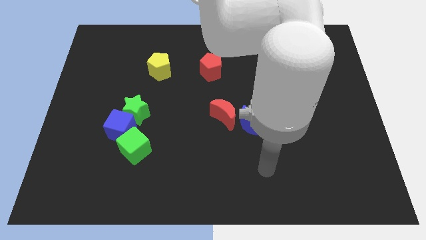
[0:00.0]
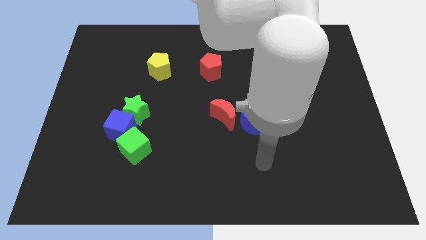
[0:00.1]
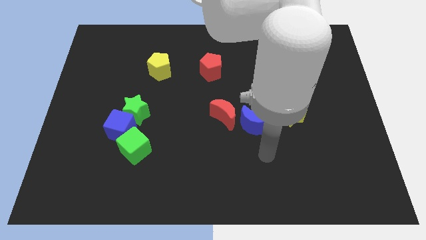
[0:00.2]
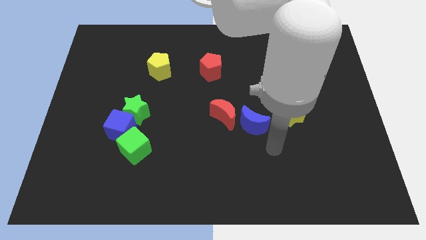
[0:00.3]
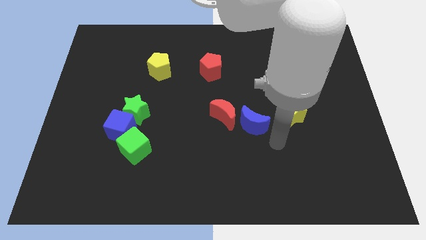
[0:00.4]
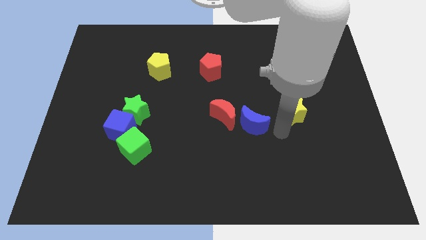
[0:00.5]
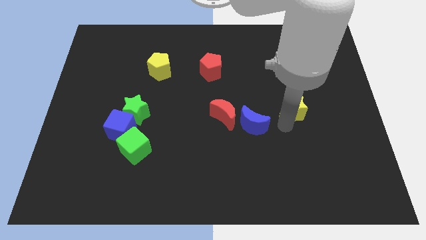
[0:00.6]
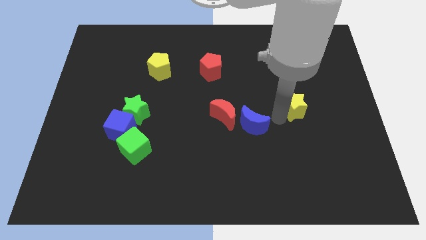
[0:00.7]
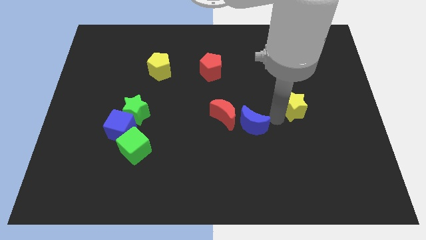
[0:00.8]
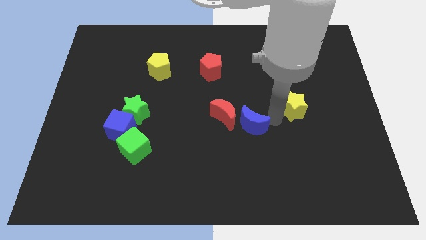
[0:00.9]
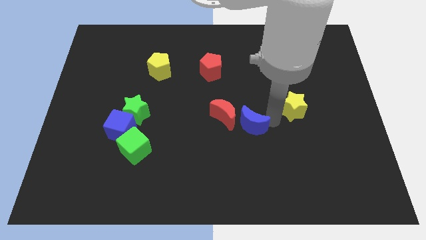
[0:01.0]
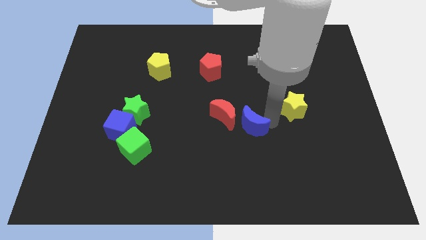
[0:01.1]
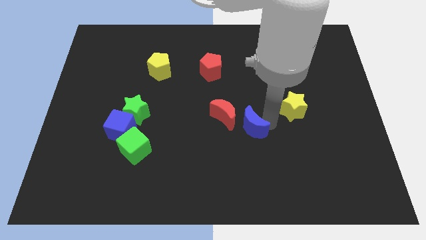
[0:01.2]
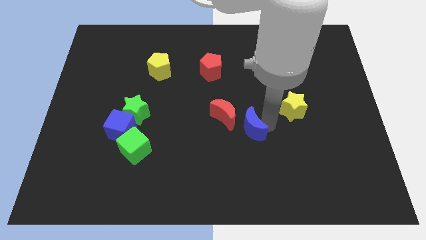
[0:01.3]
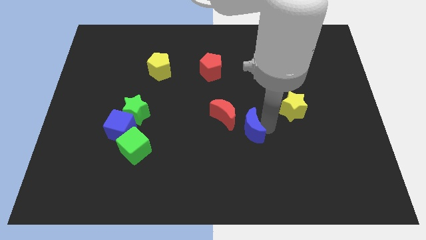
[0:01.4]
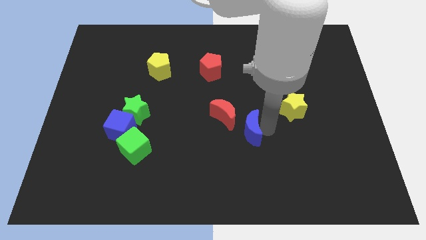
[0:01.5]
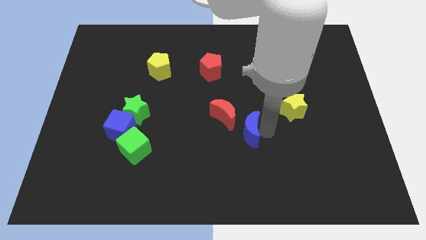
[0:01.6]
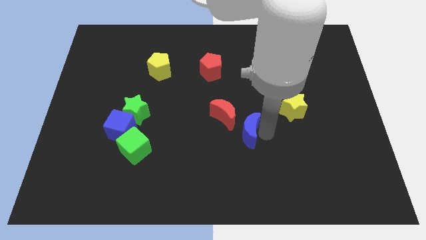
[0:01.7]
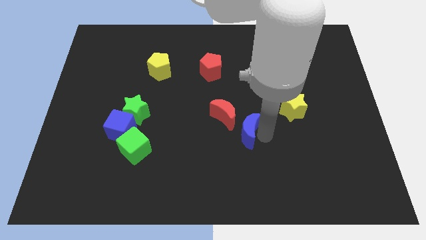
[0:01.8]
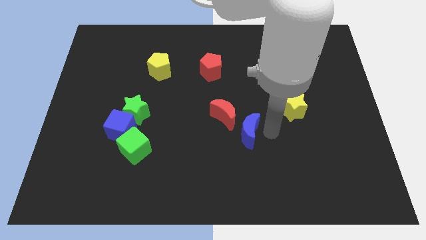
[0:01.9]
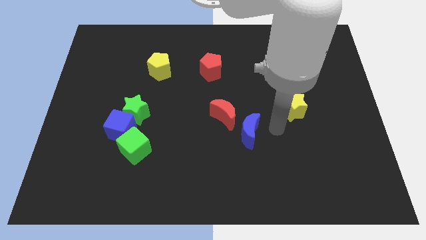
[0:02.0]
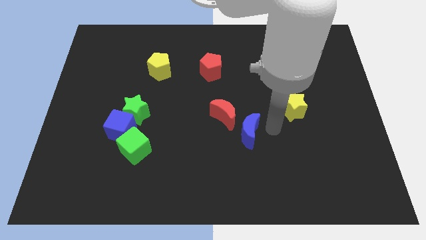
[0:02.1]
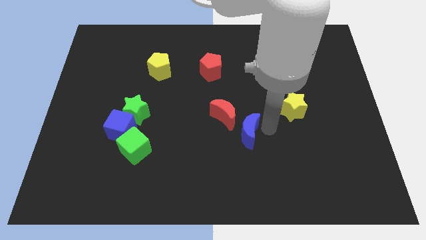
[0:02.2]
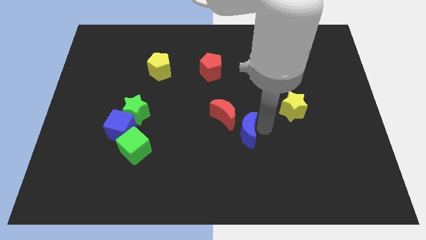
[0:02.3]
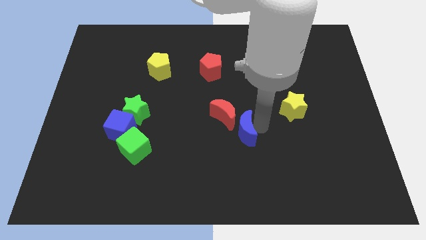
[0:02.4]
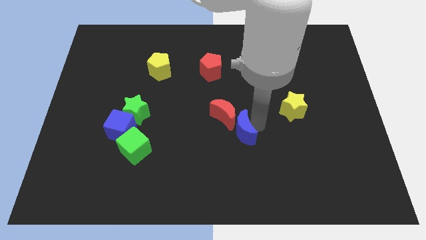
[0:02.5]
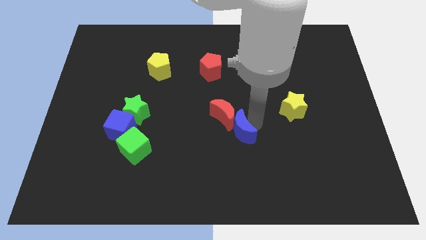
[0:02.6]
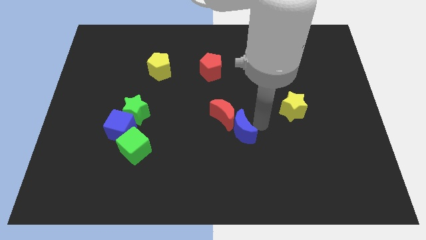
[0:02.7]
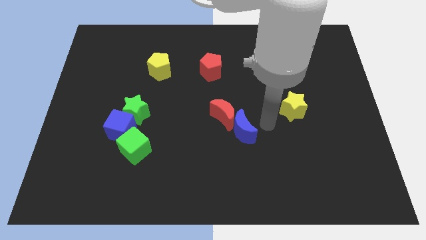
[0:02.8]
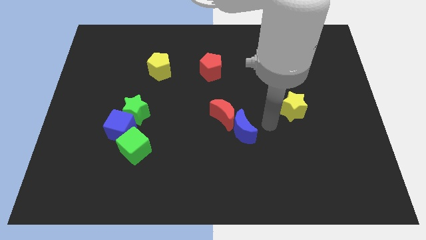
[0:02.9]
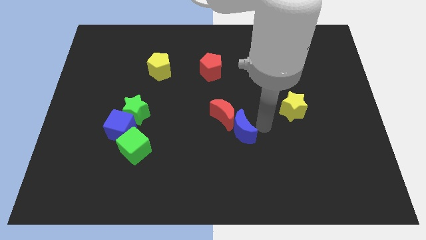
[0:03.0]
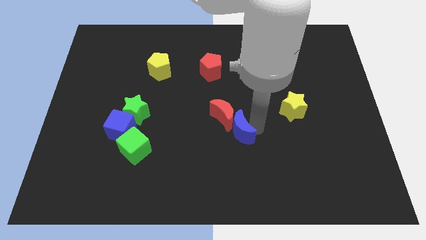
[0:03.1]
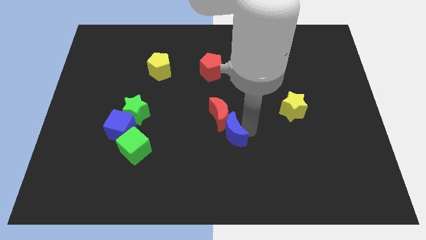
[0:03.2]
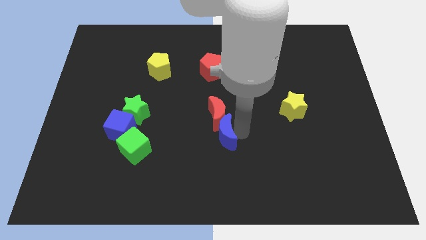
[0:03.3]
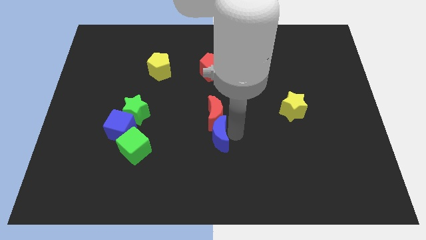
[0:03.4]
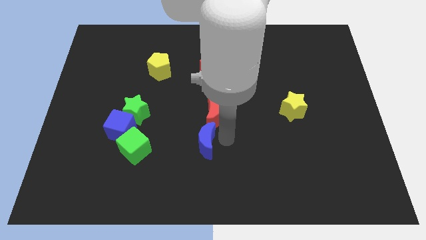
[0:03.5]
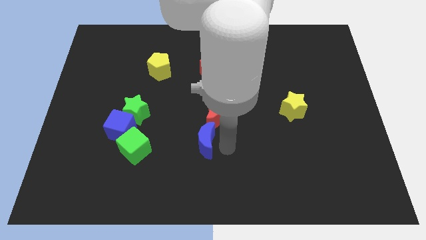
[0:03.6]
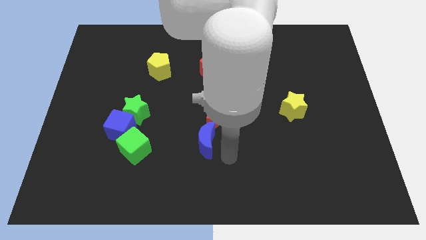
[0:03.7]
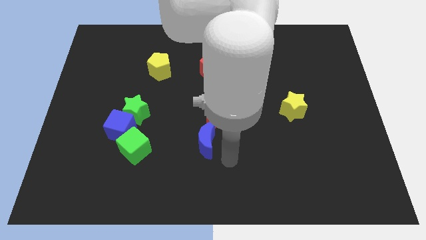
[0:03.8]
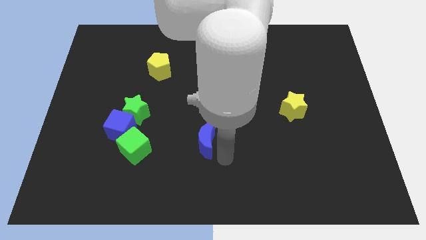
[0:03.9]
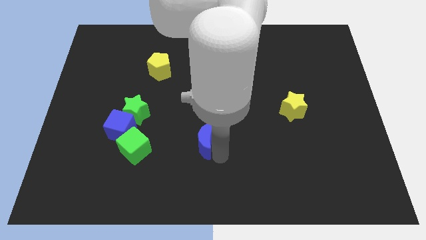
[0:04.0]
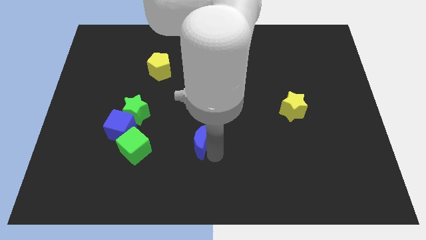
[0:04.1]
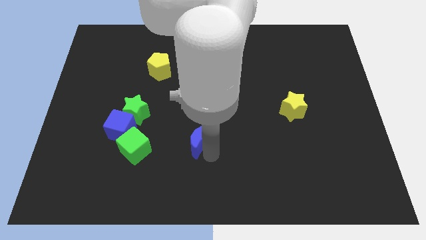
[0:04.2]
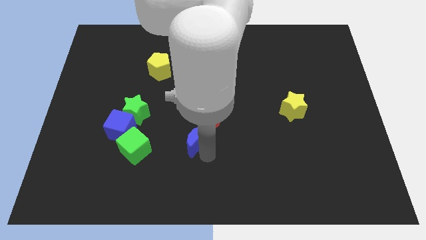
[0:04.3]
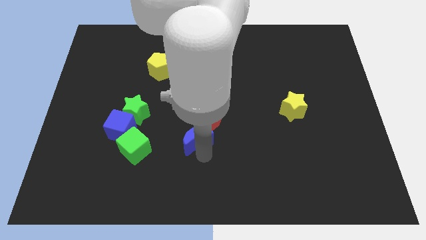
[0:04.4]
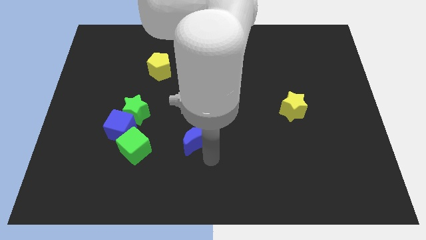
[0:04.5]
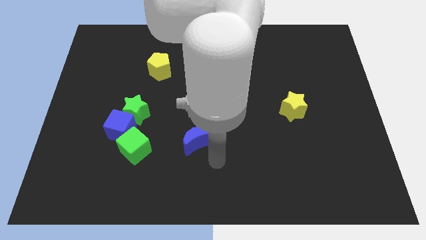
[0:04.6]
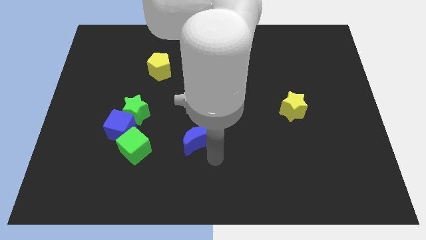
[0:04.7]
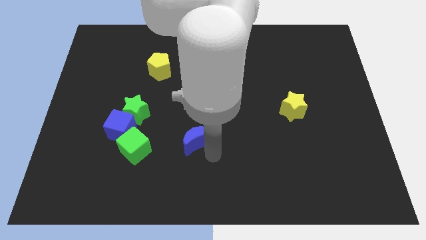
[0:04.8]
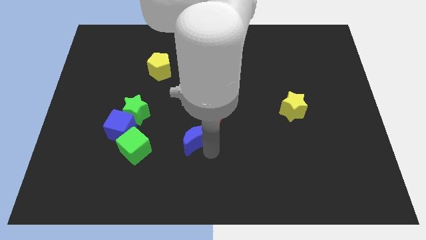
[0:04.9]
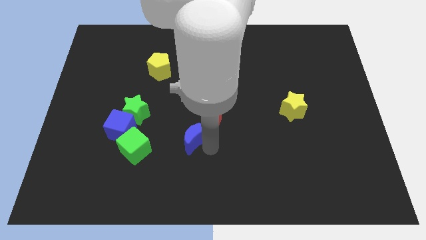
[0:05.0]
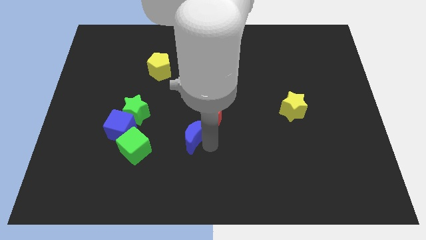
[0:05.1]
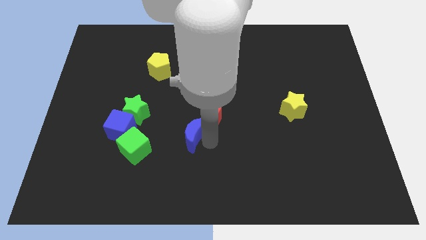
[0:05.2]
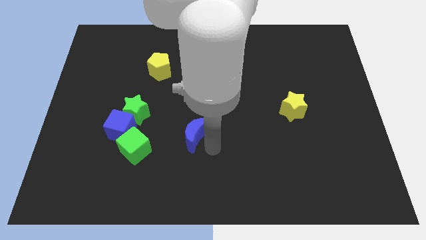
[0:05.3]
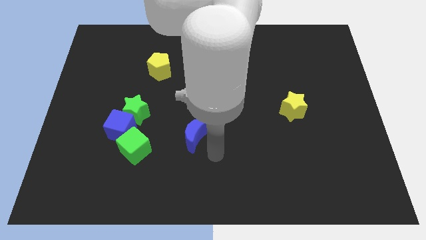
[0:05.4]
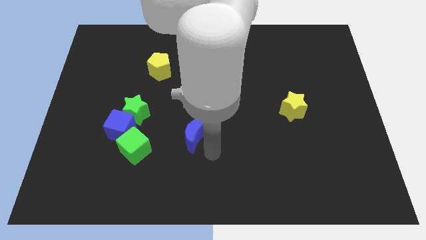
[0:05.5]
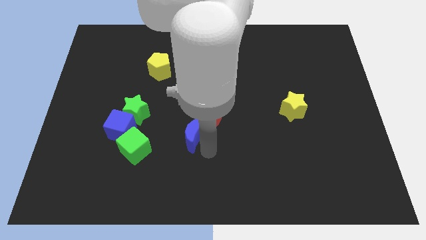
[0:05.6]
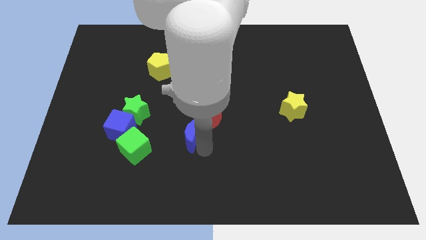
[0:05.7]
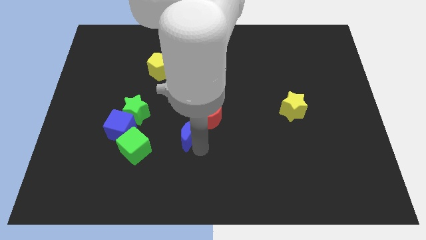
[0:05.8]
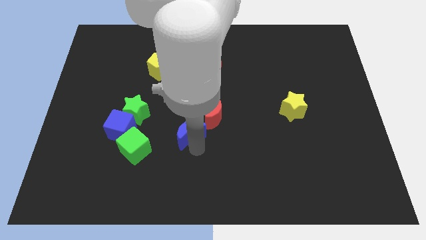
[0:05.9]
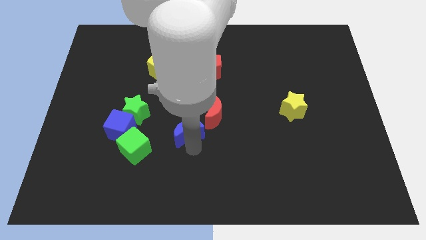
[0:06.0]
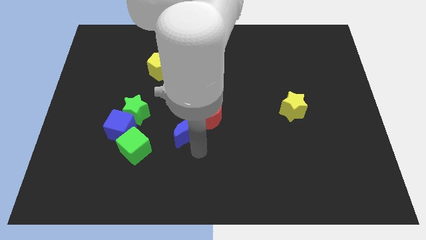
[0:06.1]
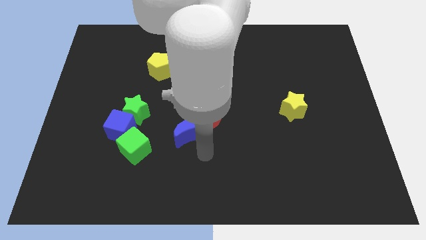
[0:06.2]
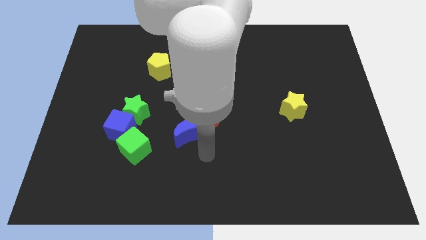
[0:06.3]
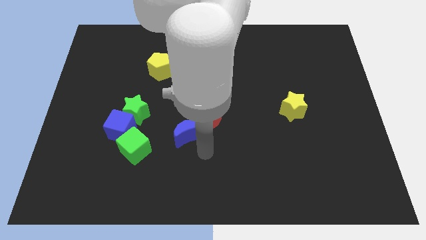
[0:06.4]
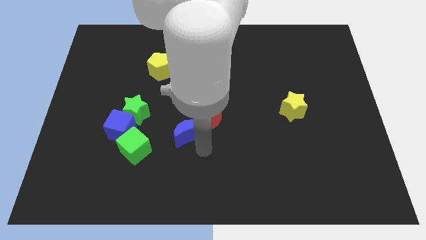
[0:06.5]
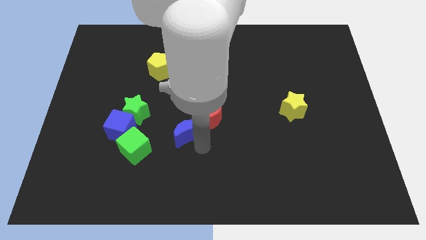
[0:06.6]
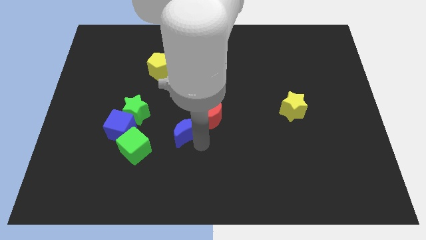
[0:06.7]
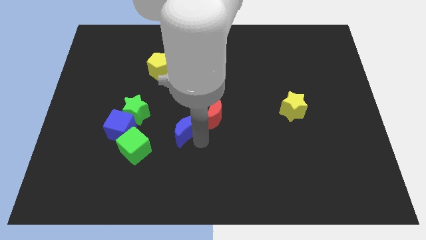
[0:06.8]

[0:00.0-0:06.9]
move the blue moon left of the red moon
